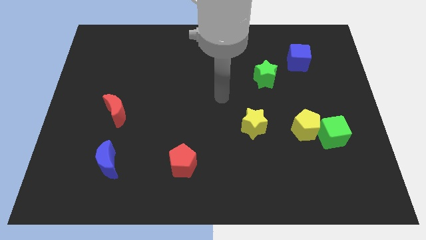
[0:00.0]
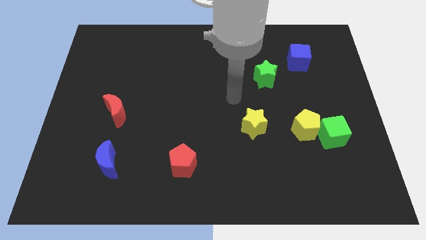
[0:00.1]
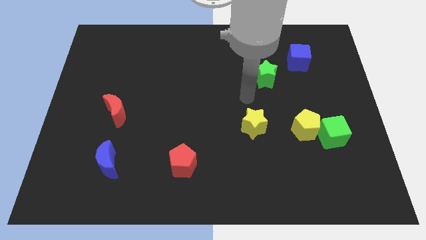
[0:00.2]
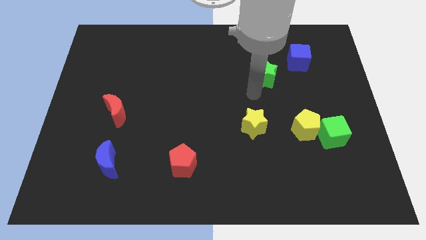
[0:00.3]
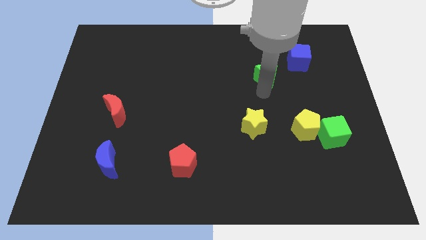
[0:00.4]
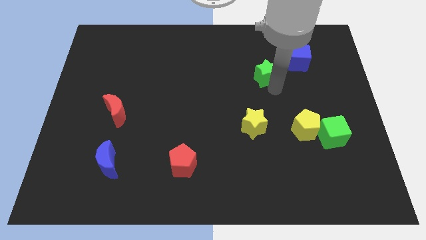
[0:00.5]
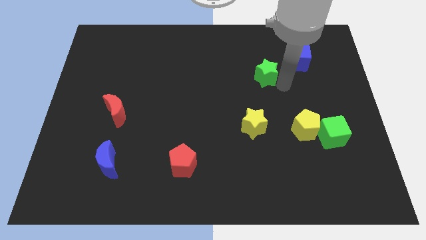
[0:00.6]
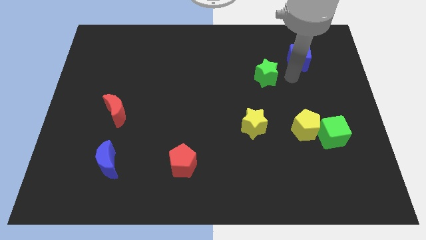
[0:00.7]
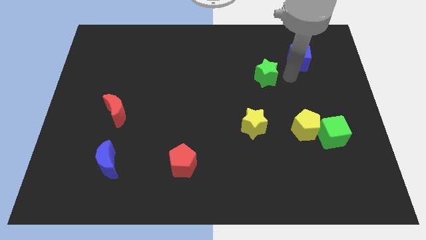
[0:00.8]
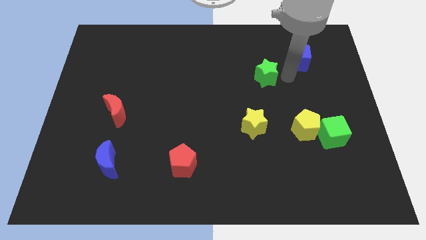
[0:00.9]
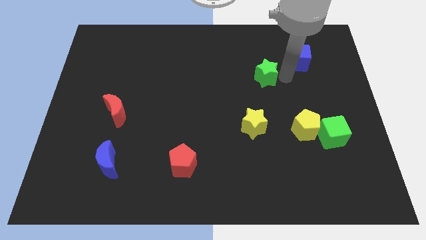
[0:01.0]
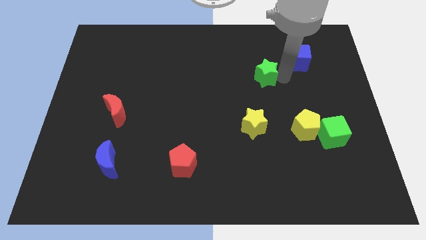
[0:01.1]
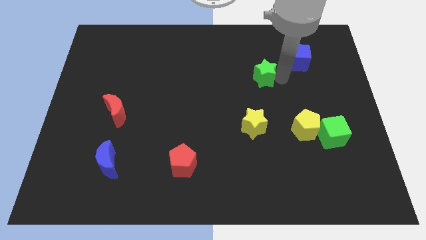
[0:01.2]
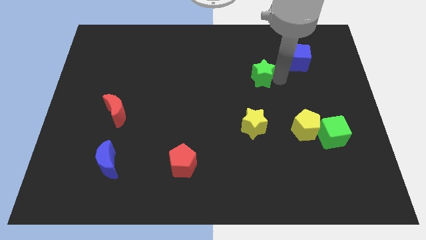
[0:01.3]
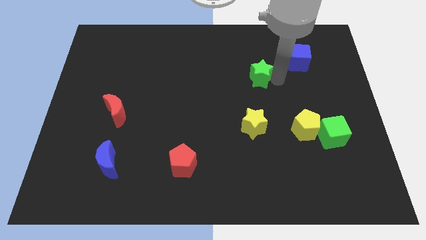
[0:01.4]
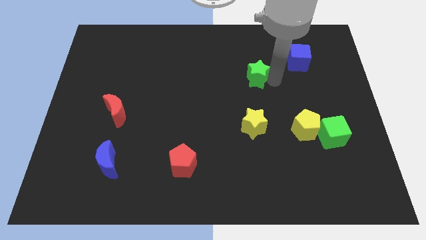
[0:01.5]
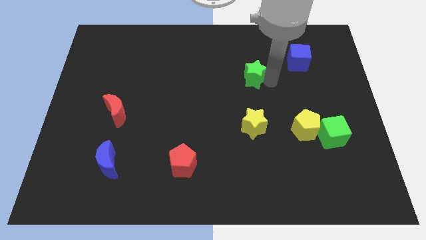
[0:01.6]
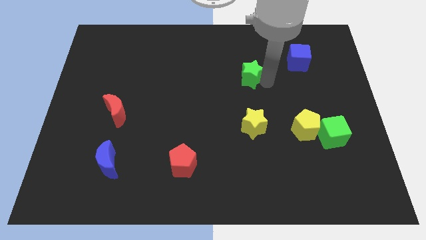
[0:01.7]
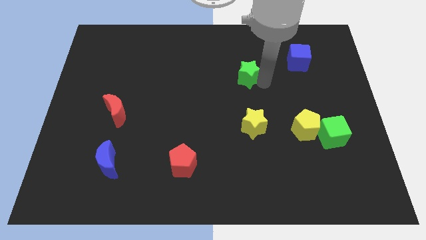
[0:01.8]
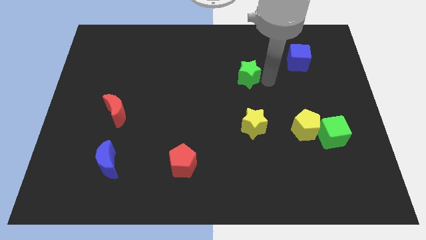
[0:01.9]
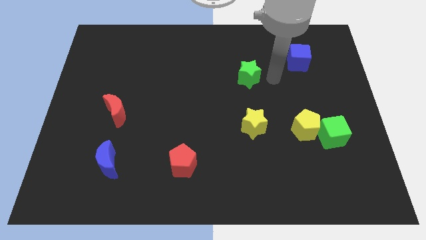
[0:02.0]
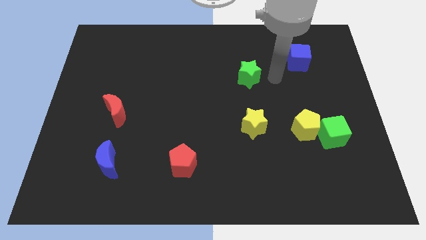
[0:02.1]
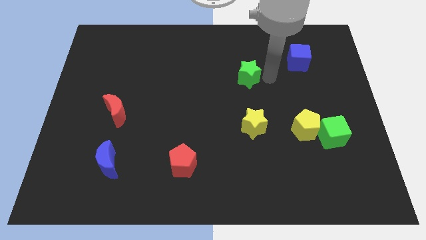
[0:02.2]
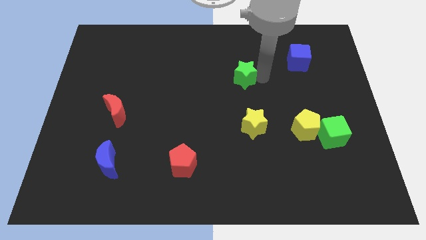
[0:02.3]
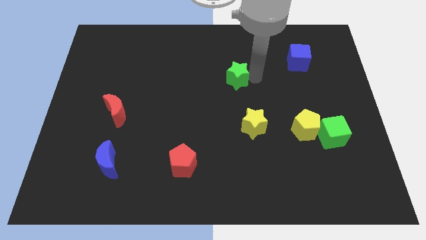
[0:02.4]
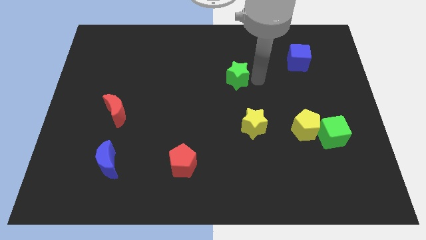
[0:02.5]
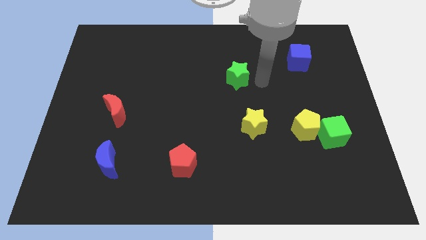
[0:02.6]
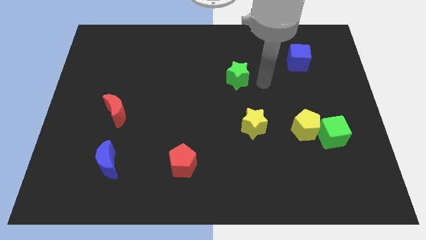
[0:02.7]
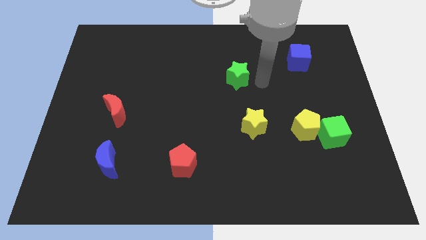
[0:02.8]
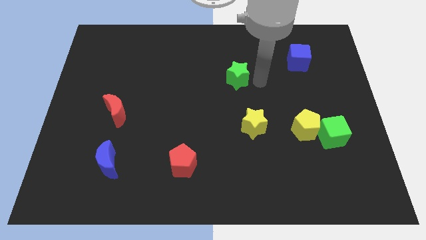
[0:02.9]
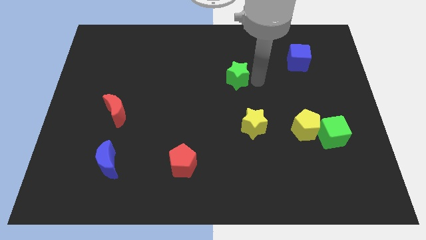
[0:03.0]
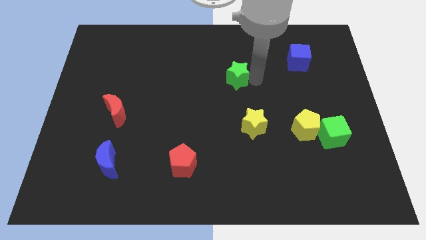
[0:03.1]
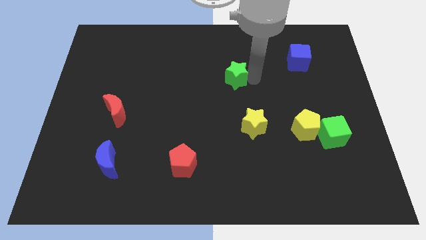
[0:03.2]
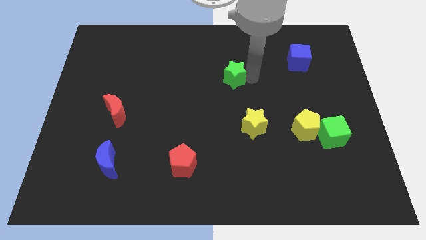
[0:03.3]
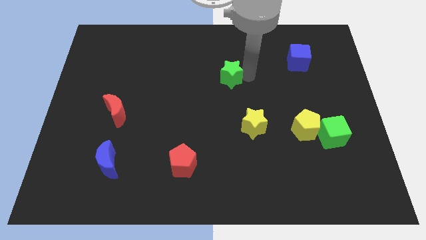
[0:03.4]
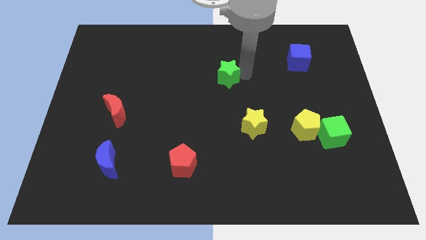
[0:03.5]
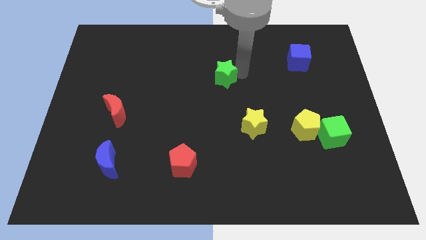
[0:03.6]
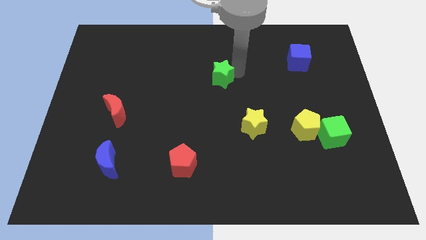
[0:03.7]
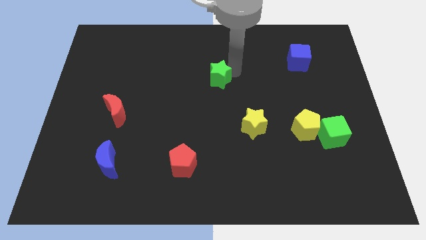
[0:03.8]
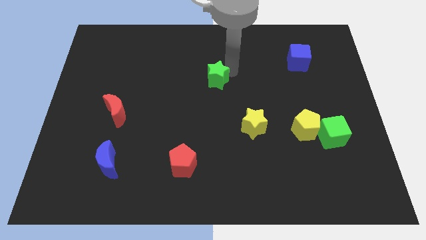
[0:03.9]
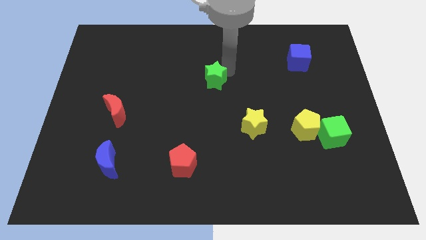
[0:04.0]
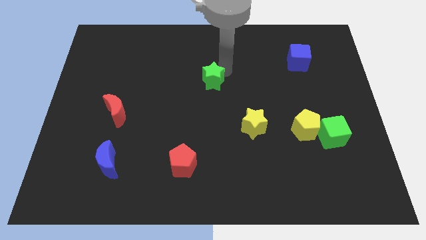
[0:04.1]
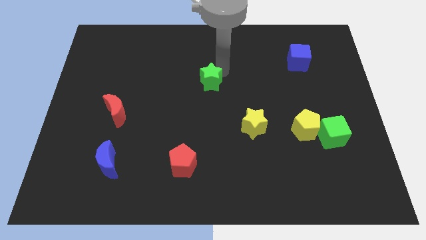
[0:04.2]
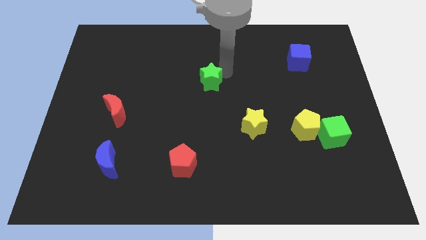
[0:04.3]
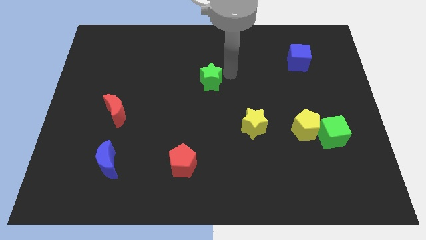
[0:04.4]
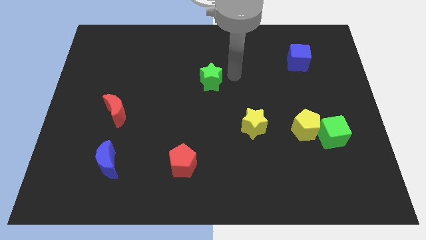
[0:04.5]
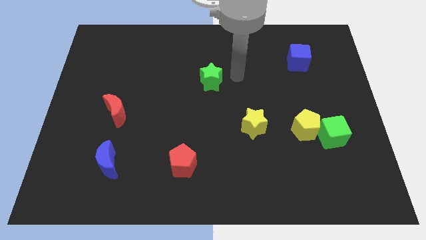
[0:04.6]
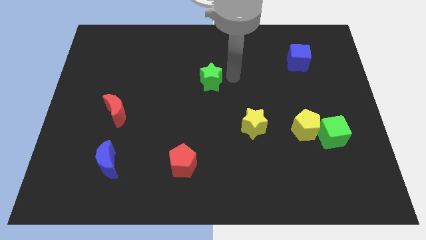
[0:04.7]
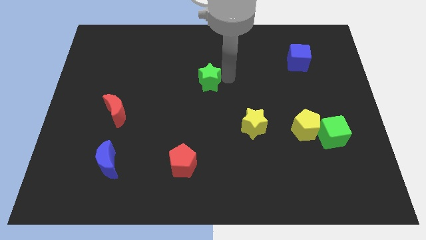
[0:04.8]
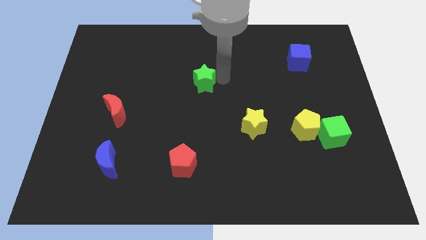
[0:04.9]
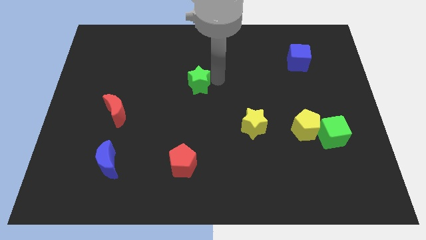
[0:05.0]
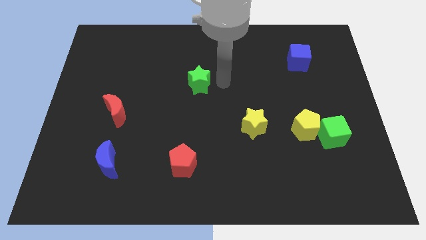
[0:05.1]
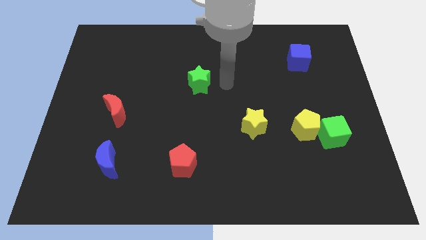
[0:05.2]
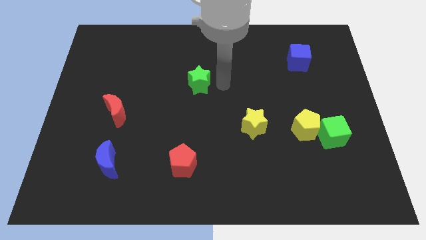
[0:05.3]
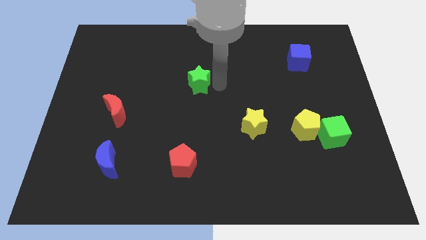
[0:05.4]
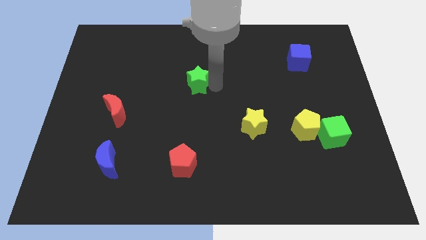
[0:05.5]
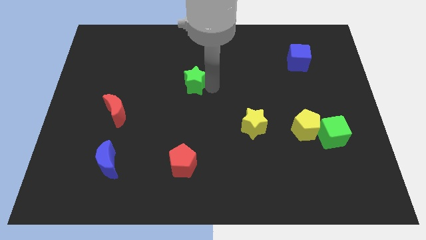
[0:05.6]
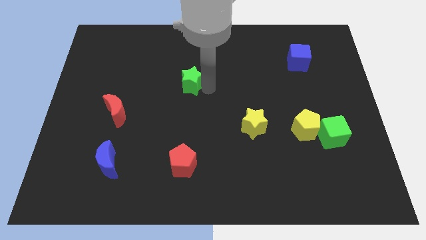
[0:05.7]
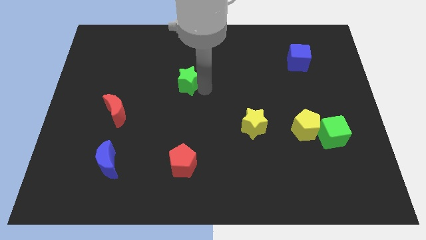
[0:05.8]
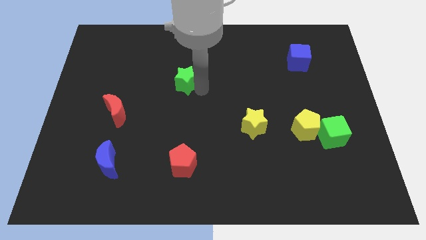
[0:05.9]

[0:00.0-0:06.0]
move the green star to the left

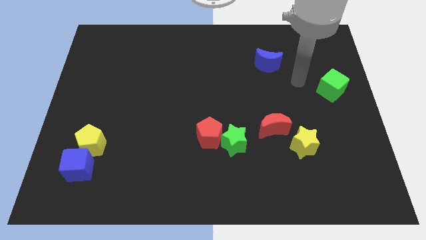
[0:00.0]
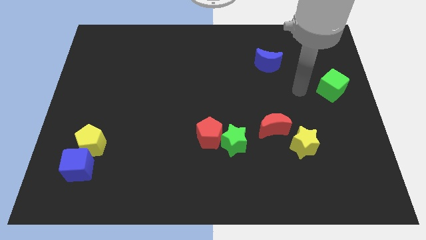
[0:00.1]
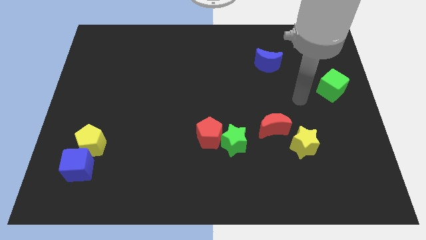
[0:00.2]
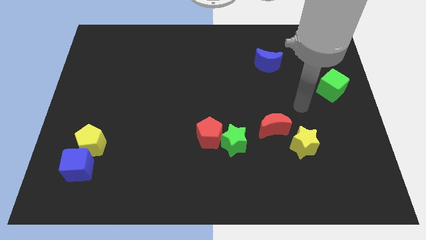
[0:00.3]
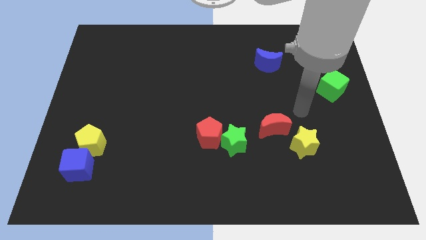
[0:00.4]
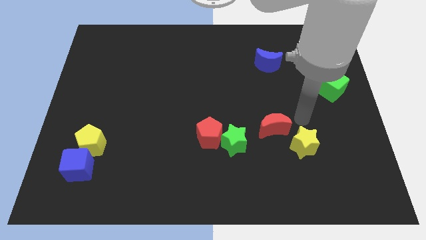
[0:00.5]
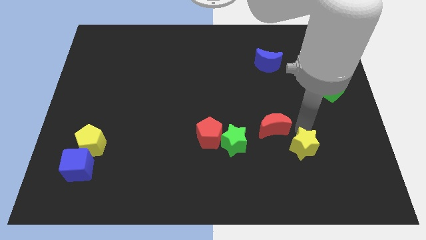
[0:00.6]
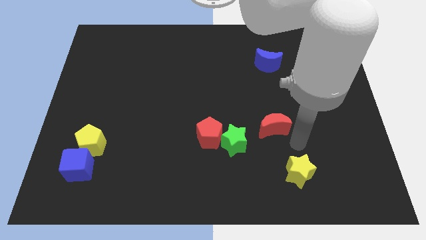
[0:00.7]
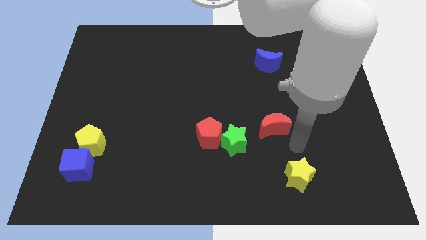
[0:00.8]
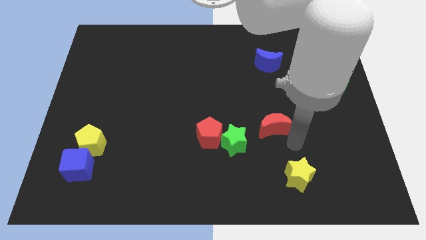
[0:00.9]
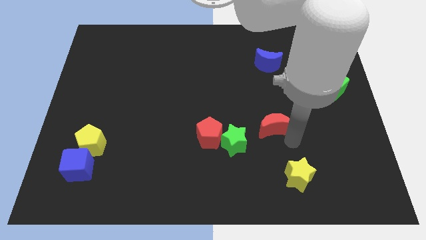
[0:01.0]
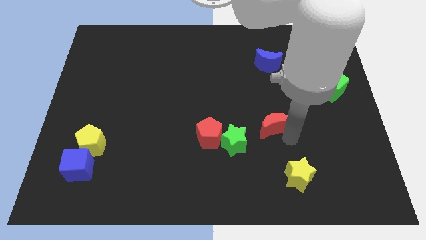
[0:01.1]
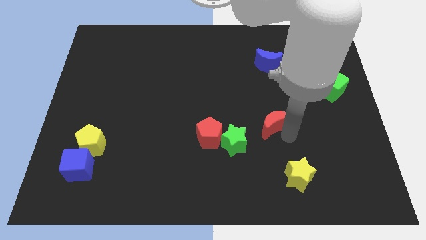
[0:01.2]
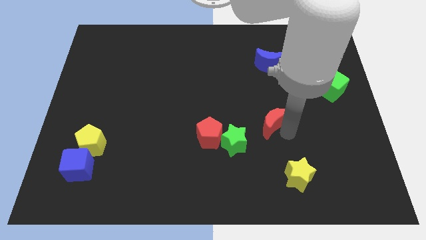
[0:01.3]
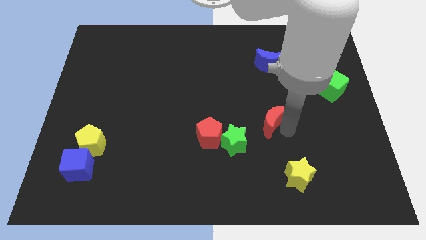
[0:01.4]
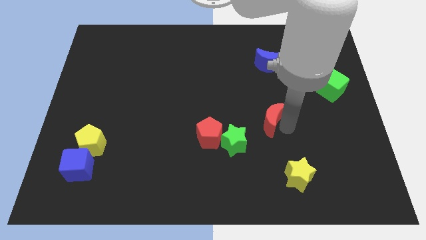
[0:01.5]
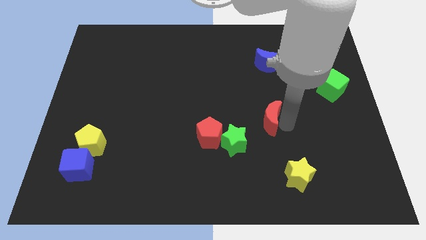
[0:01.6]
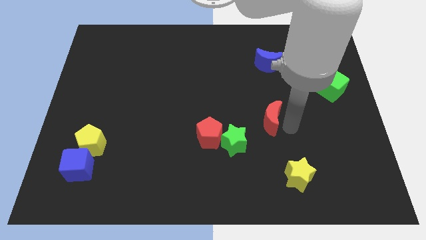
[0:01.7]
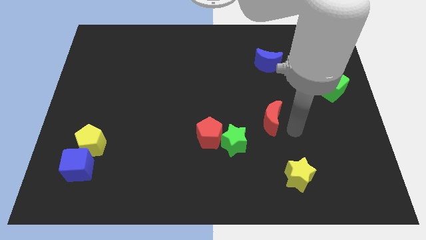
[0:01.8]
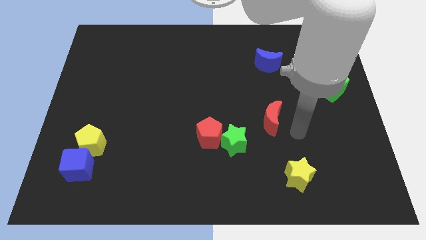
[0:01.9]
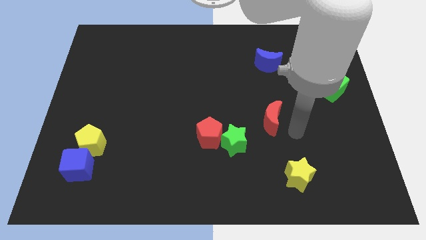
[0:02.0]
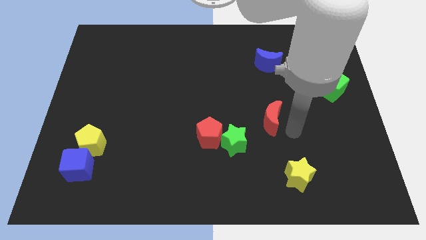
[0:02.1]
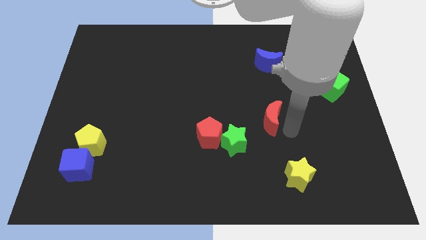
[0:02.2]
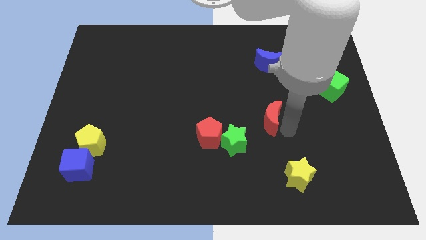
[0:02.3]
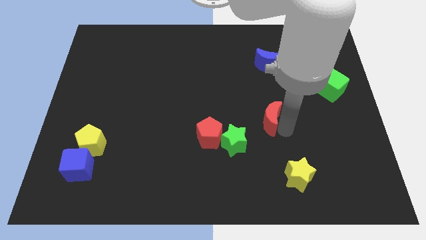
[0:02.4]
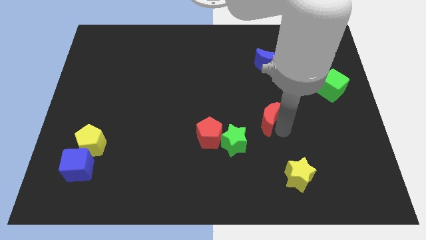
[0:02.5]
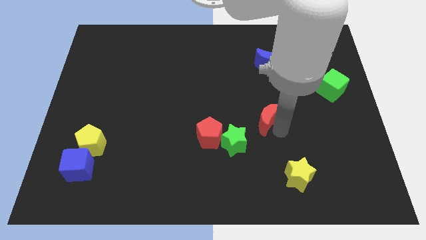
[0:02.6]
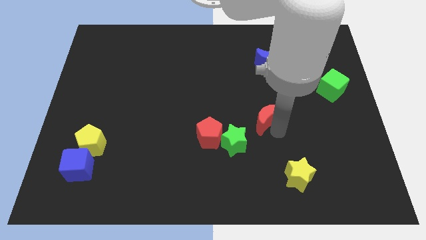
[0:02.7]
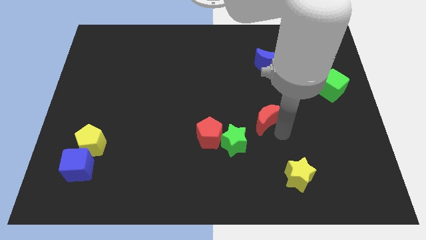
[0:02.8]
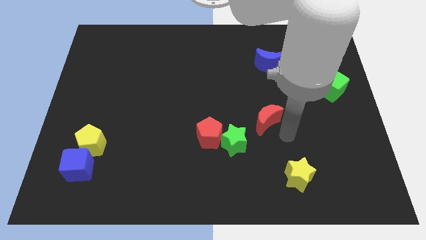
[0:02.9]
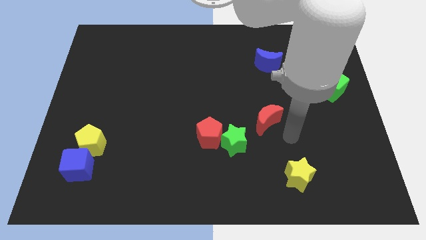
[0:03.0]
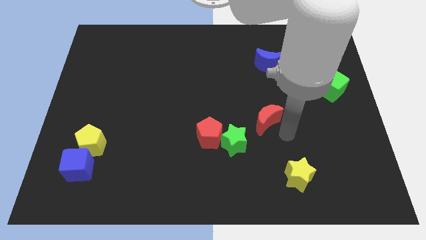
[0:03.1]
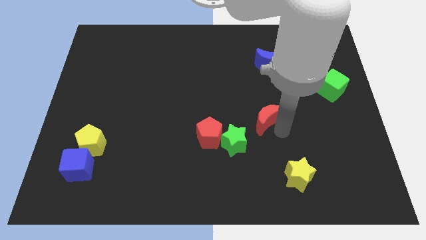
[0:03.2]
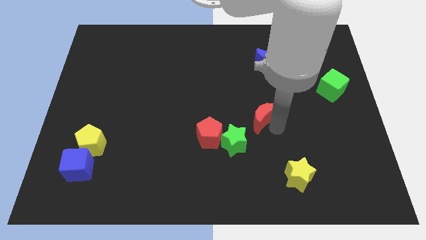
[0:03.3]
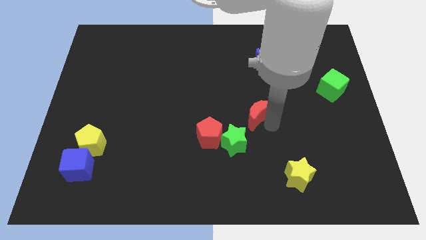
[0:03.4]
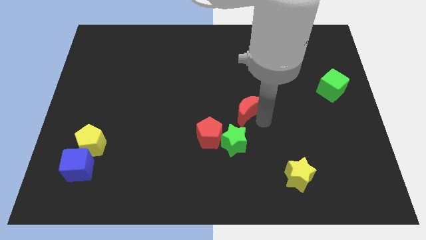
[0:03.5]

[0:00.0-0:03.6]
push the red moon up and to the left diagonally a little bit
